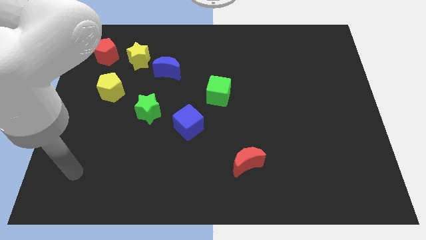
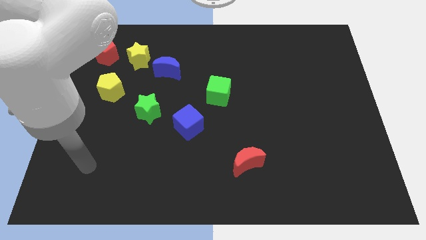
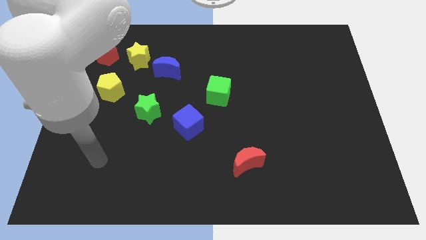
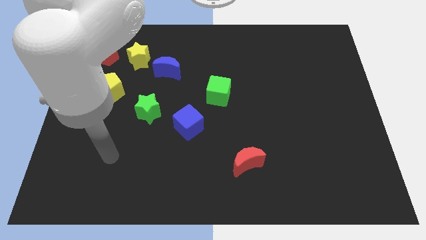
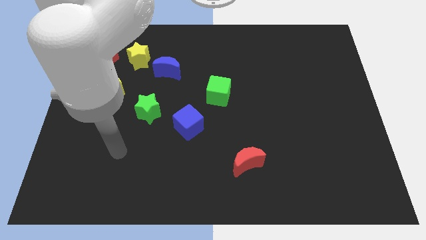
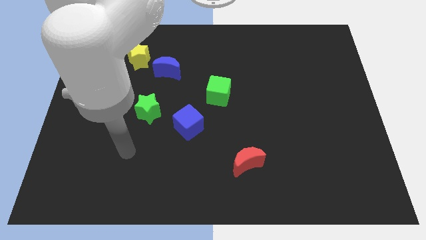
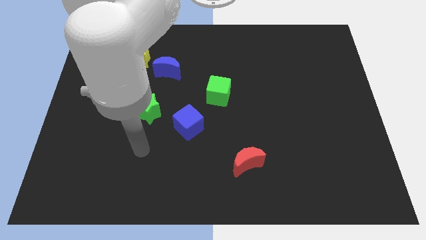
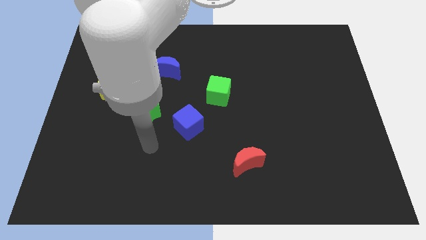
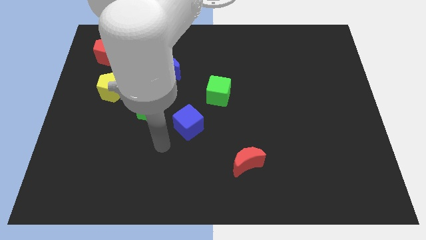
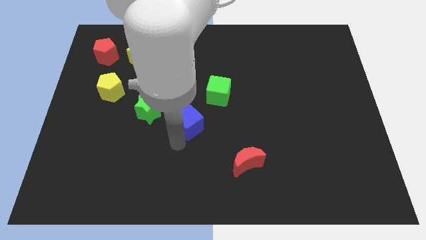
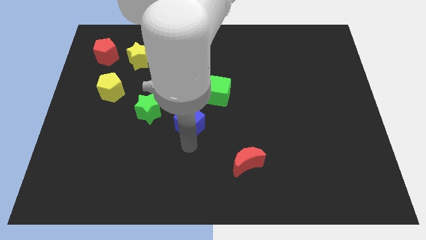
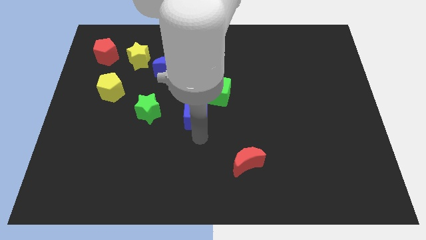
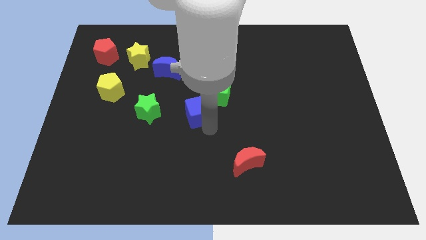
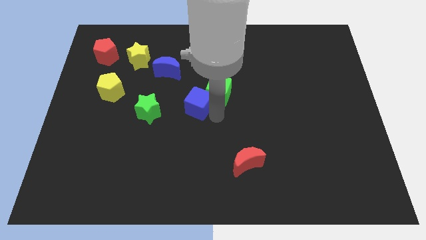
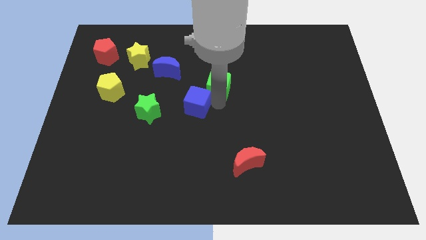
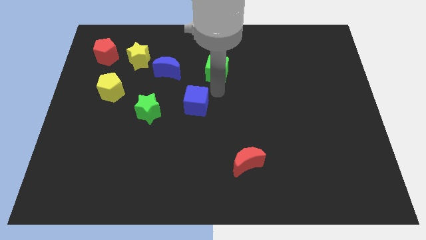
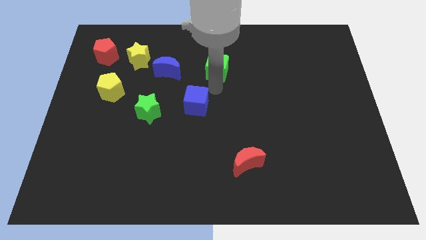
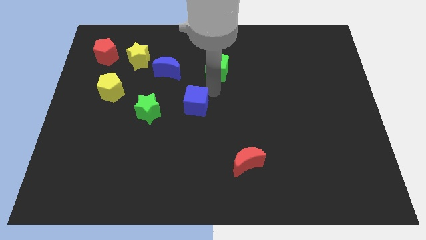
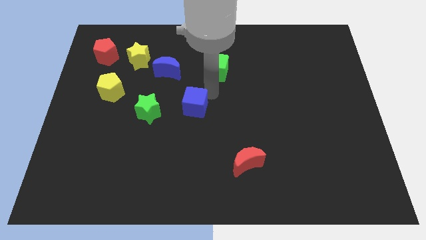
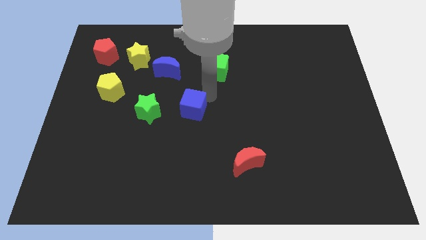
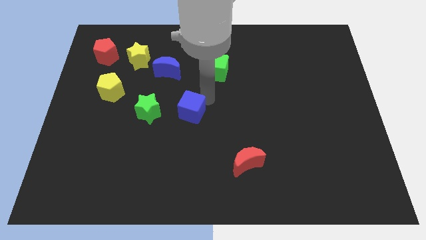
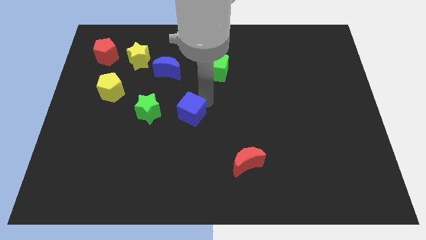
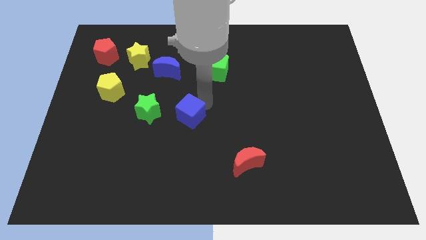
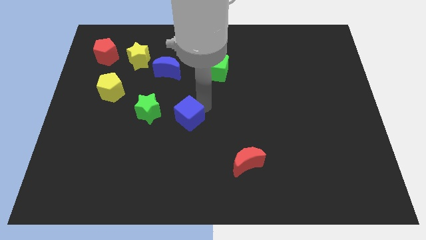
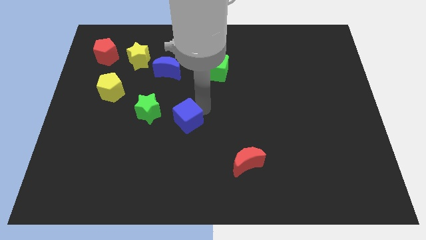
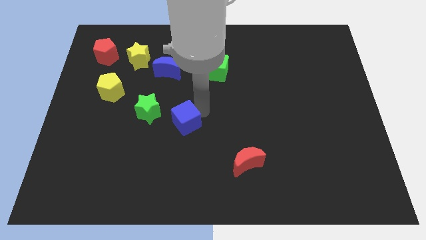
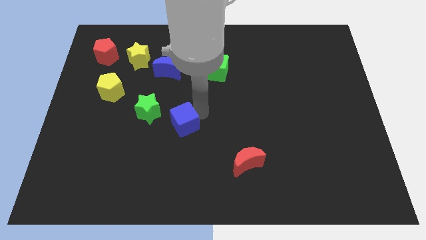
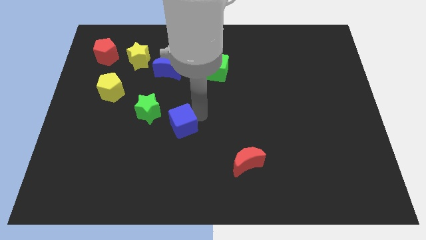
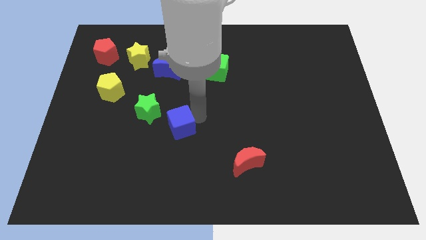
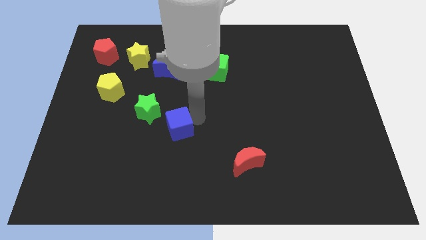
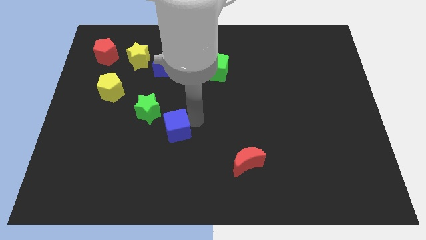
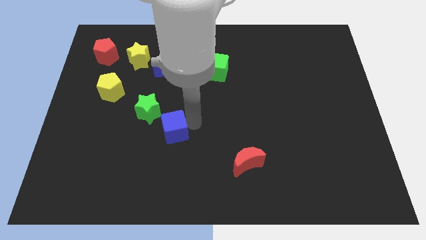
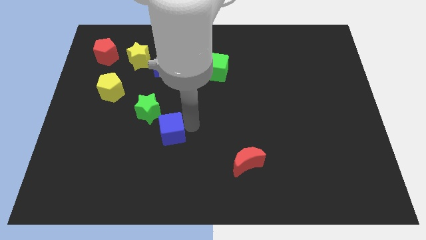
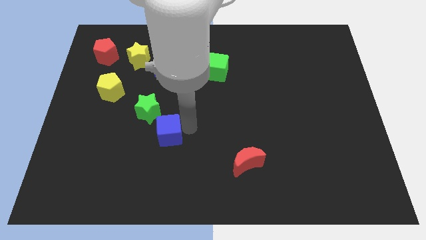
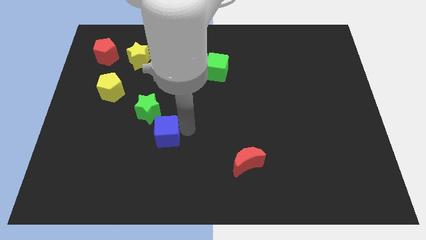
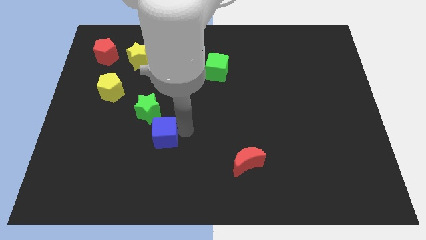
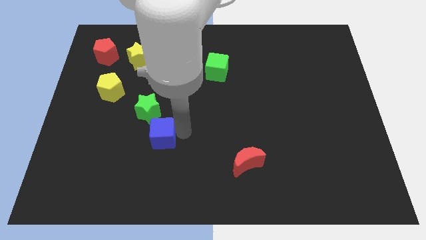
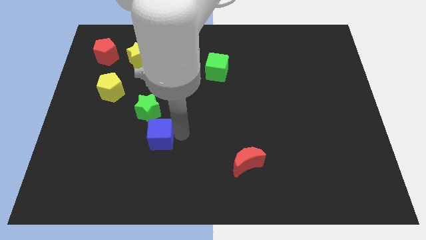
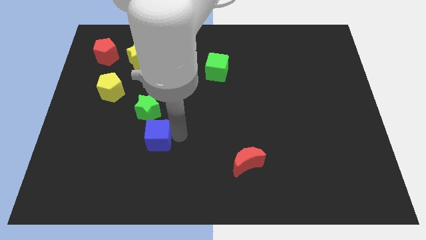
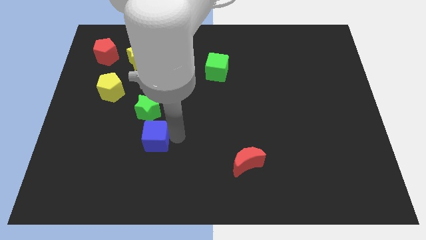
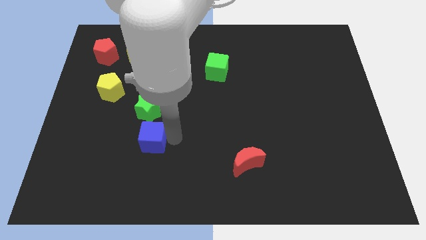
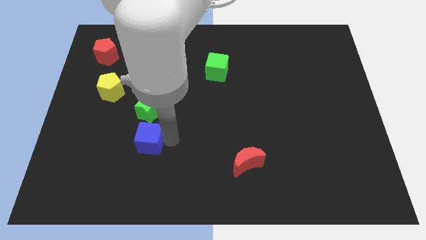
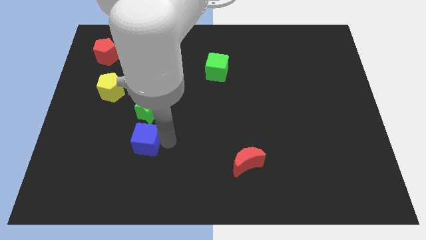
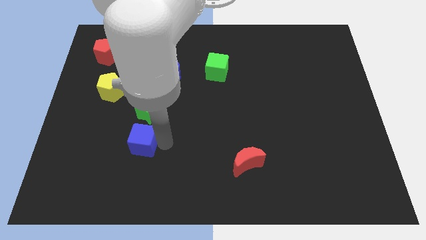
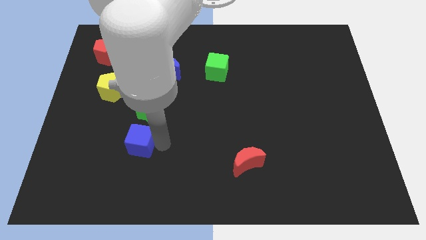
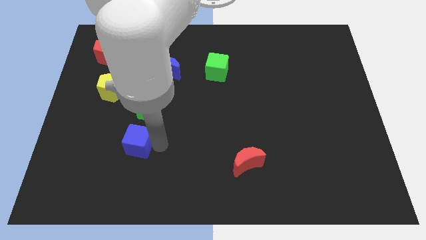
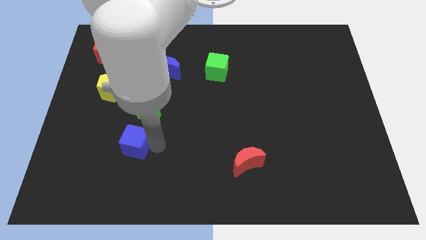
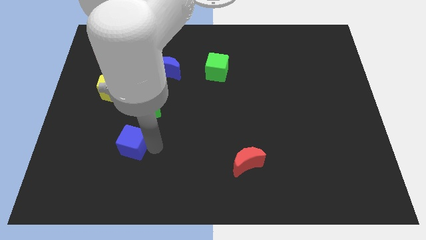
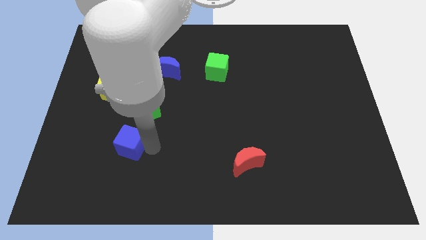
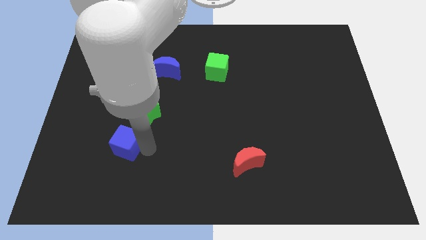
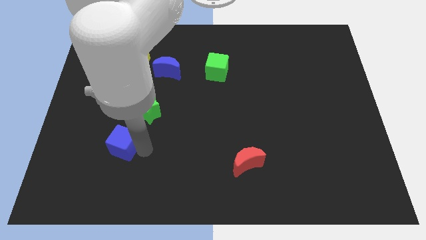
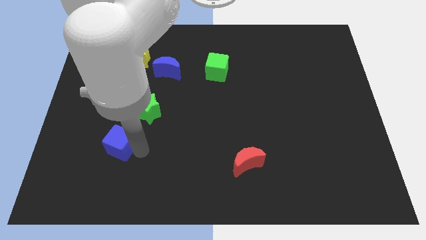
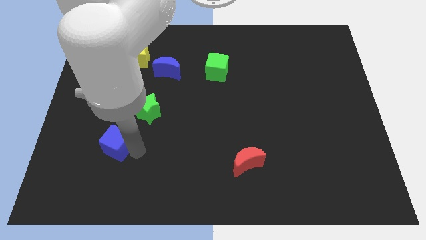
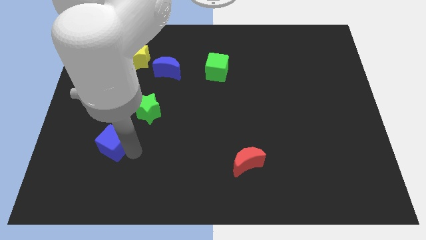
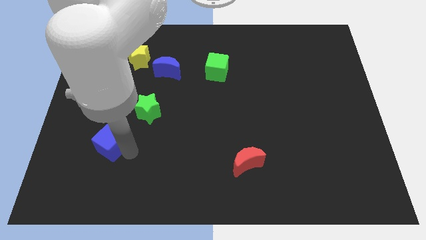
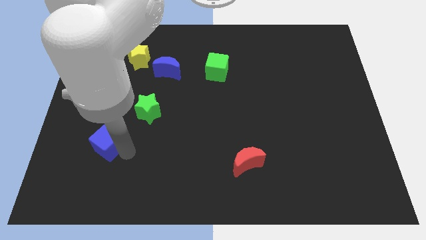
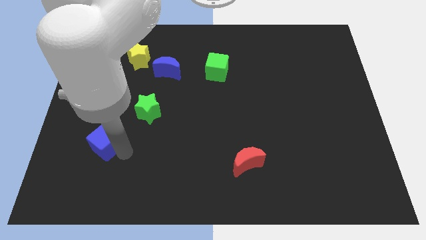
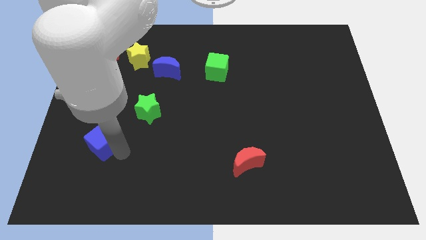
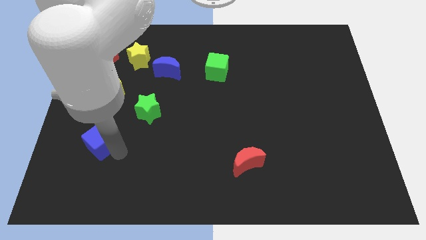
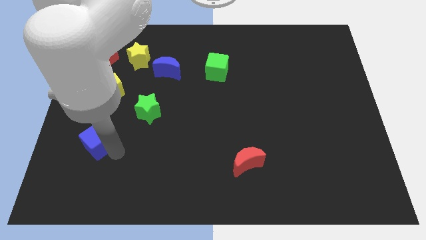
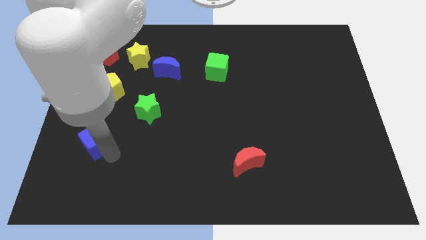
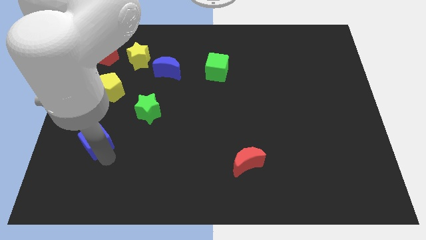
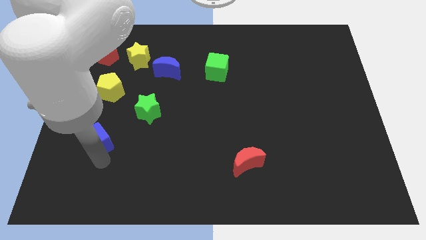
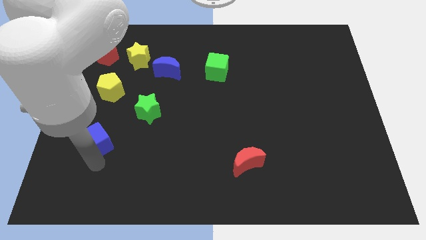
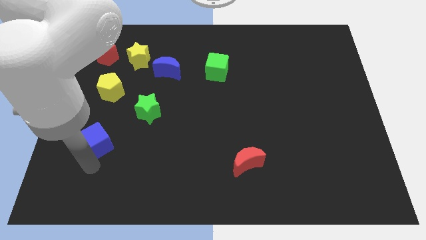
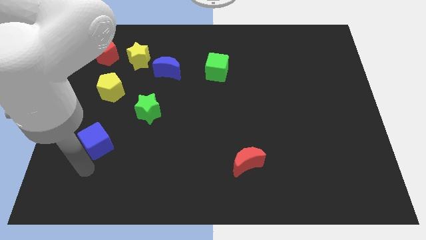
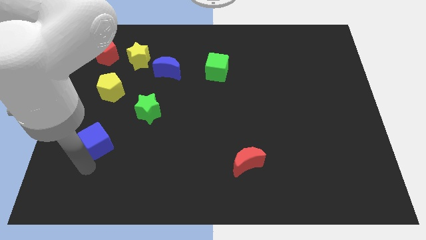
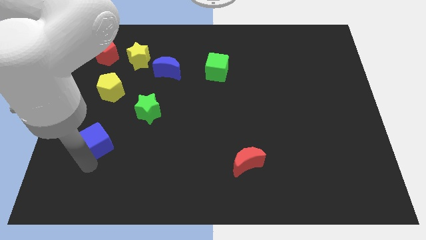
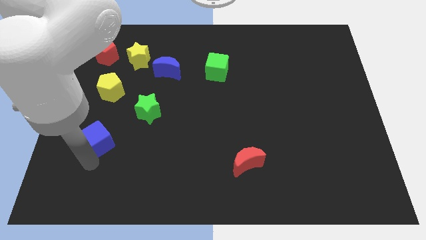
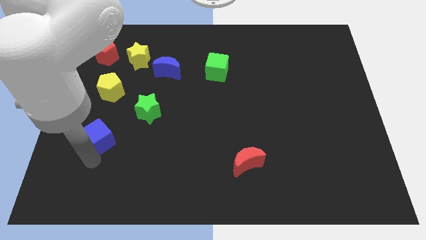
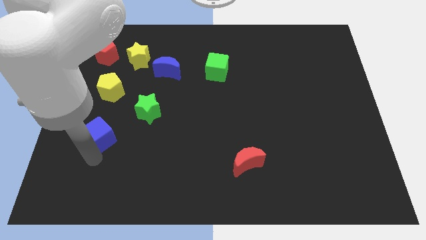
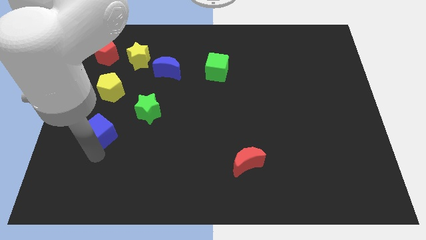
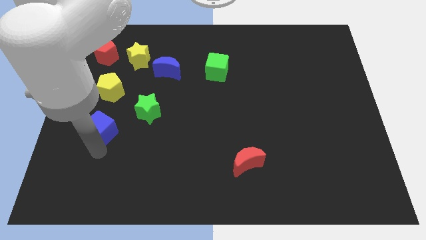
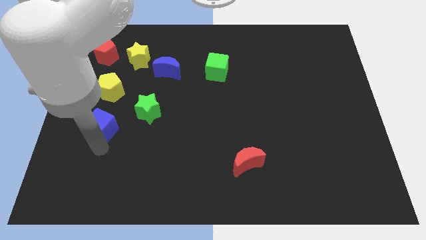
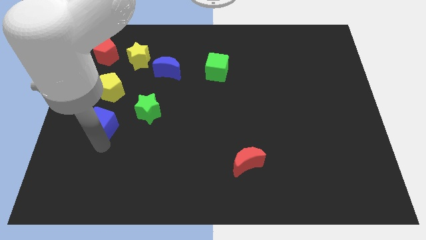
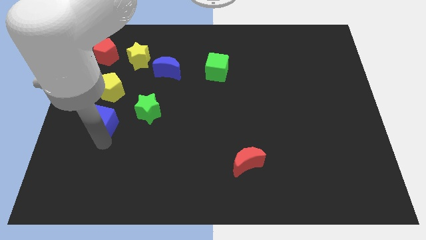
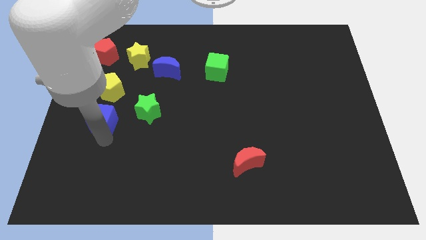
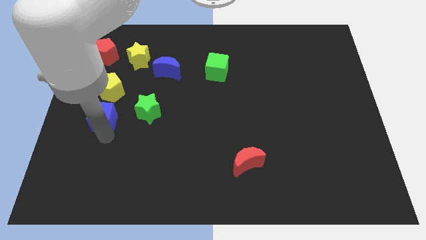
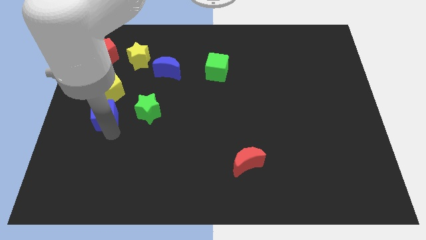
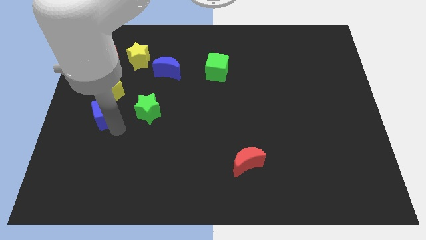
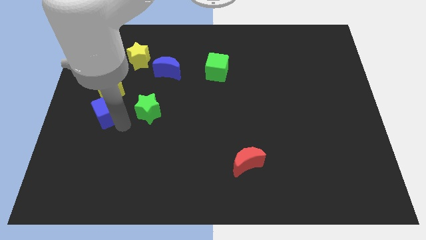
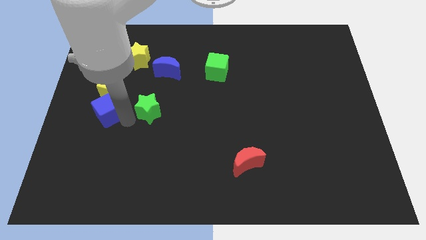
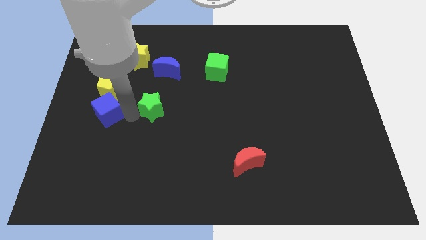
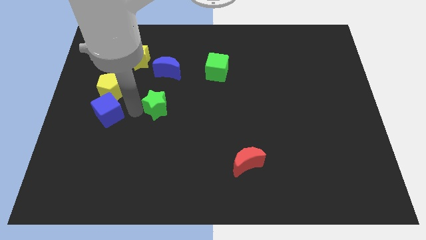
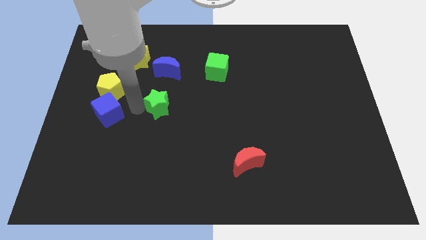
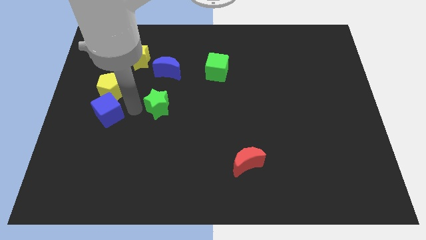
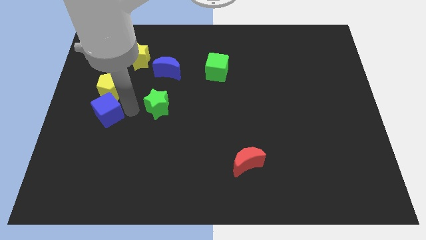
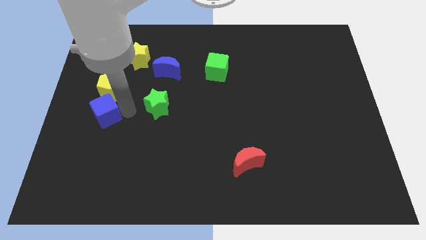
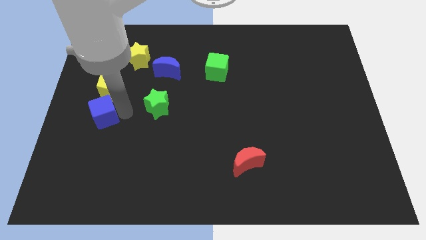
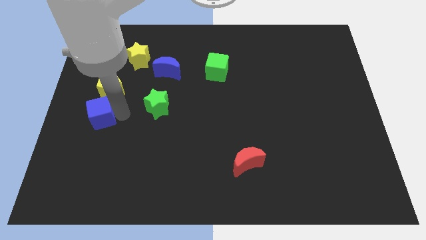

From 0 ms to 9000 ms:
put the blue cube to the center left
